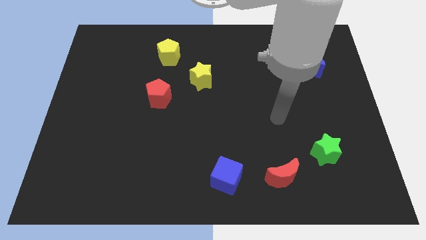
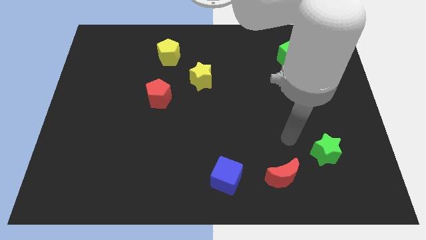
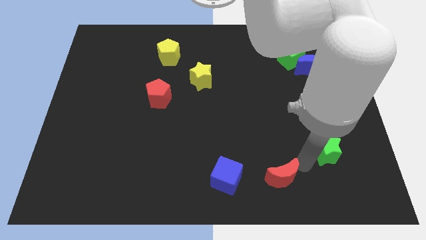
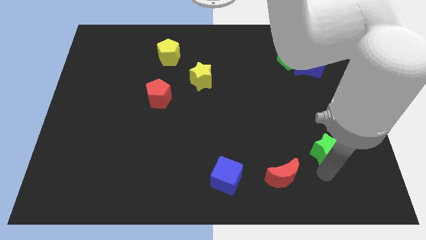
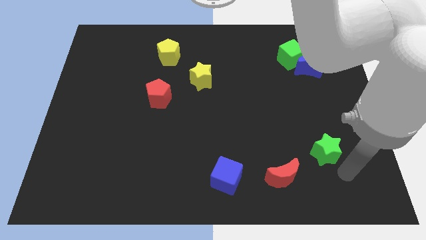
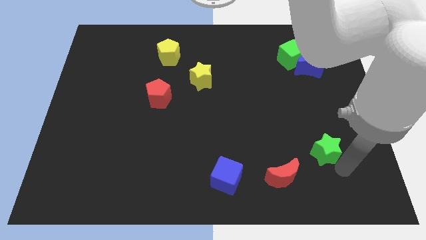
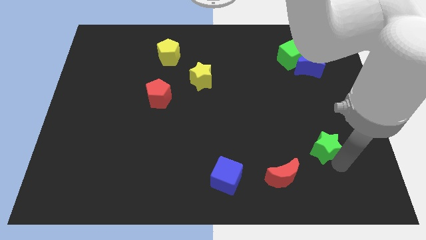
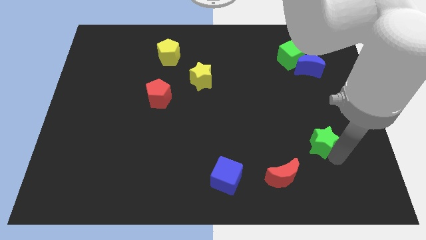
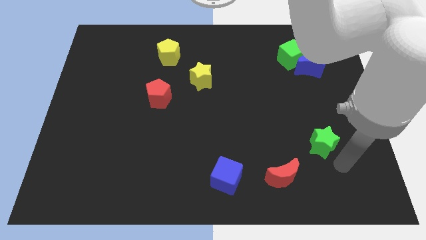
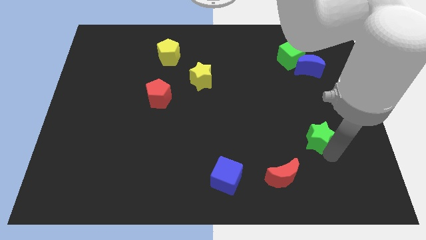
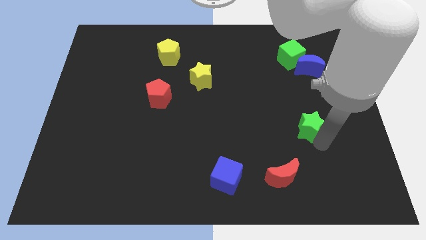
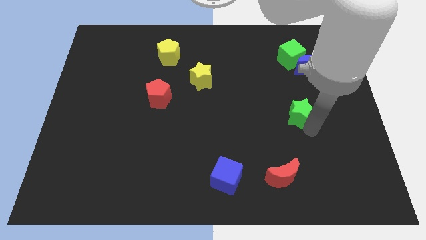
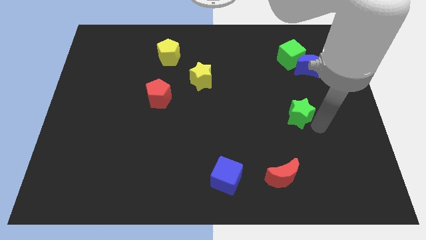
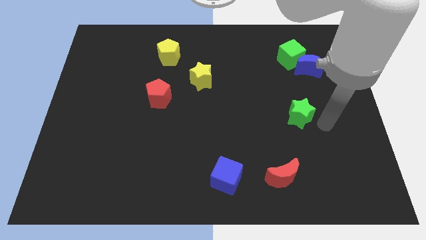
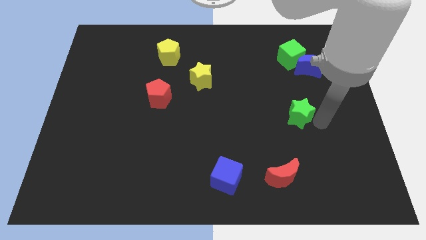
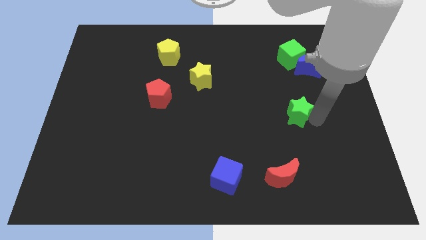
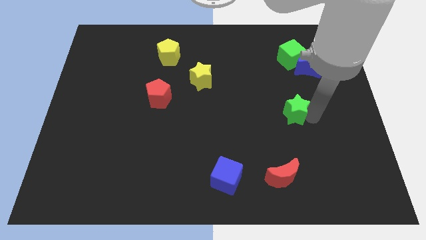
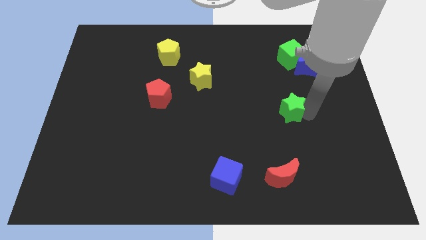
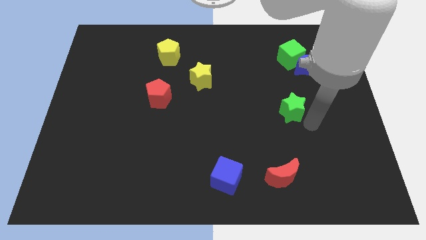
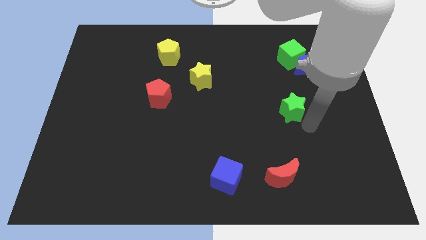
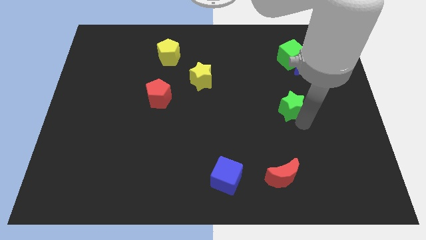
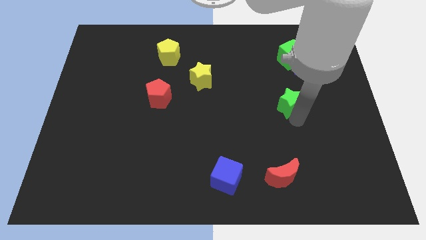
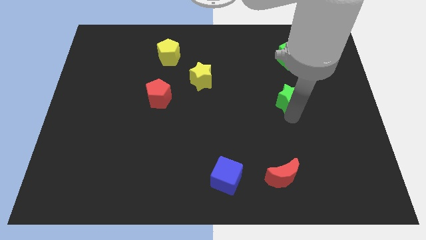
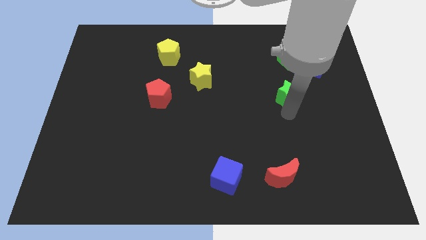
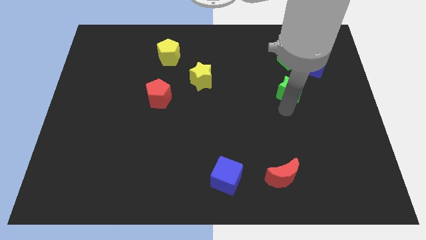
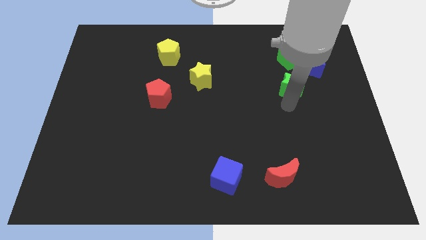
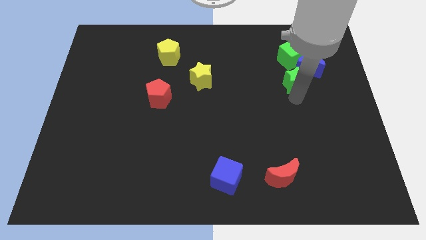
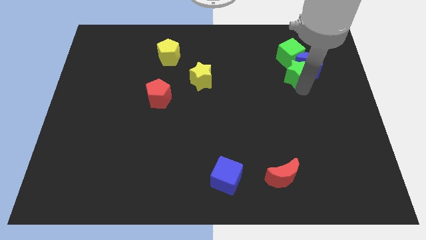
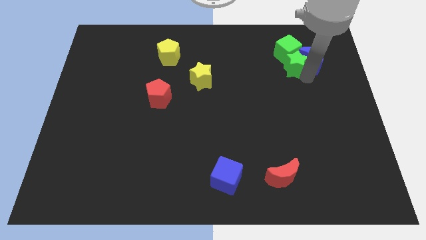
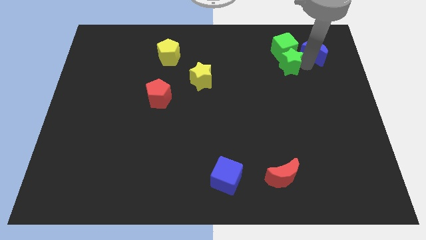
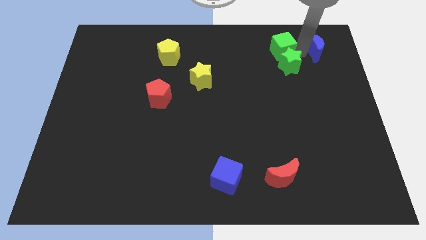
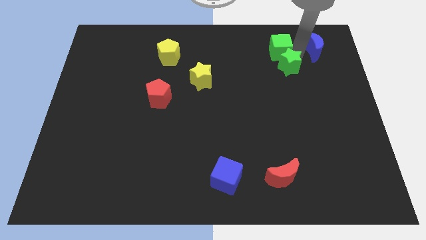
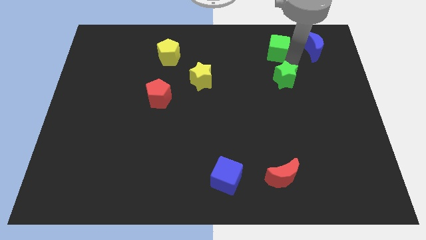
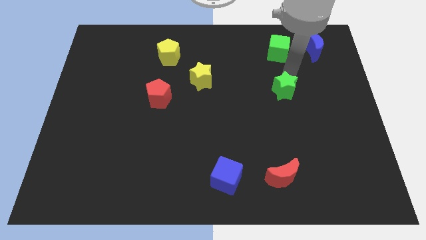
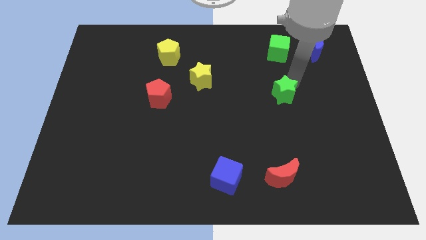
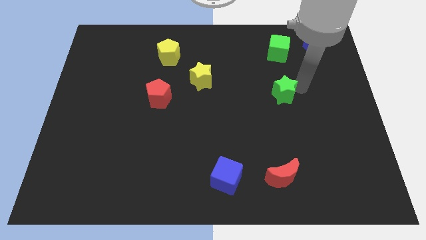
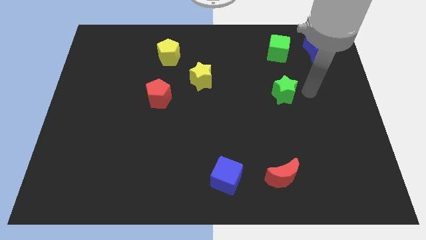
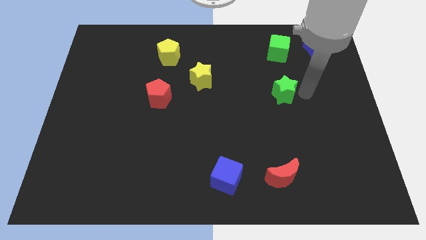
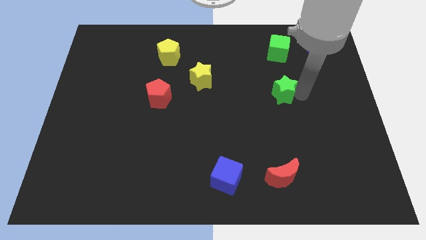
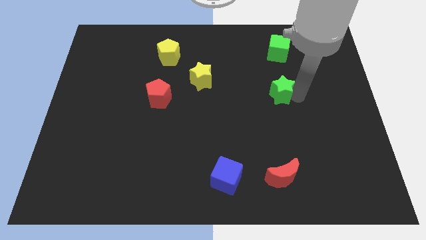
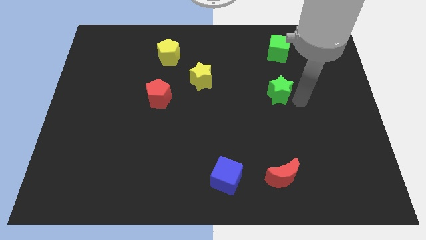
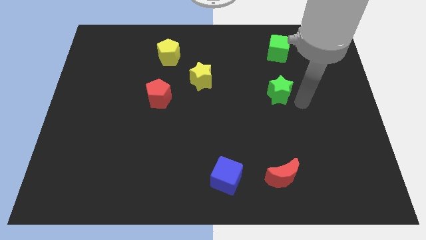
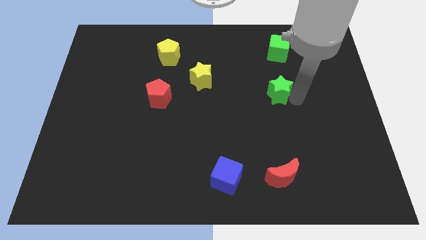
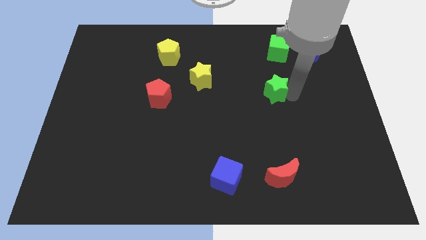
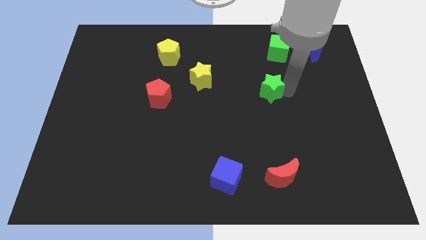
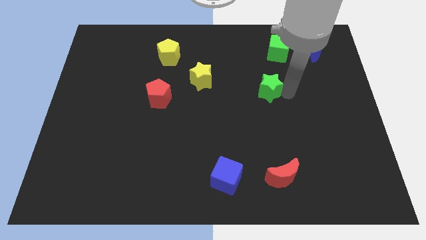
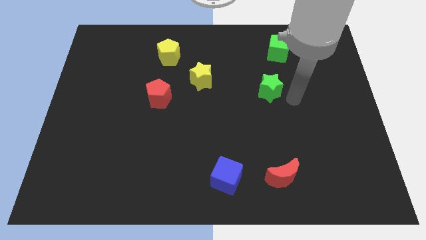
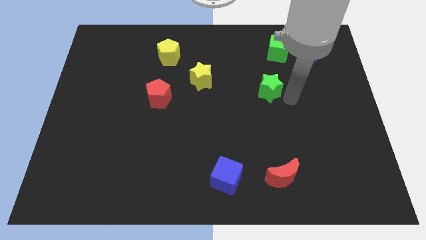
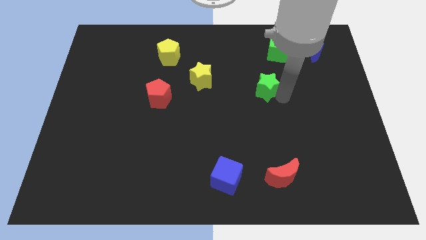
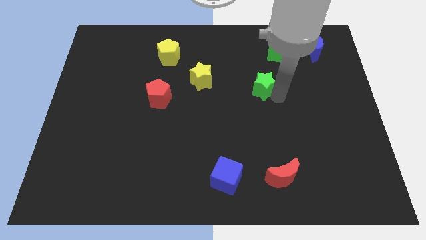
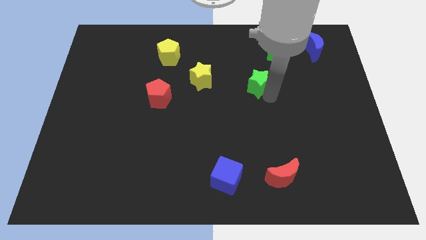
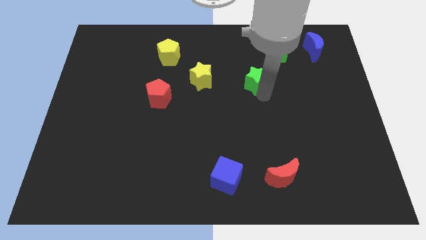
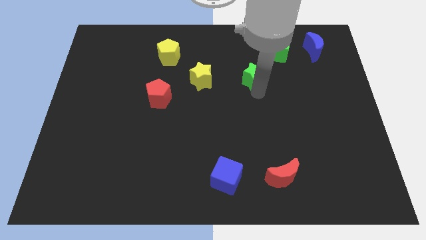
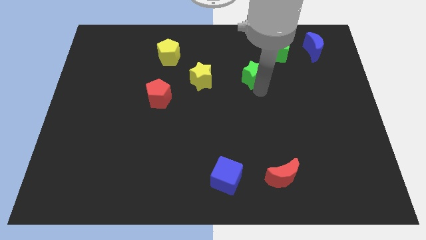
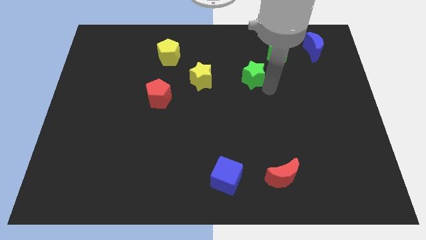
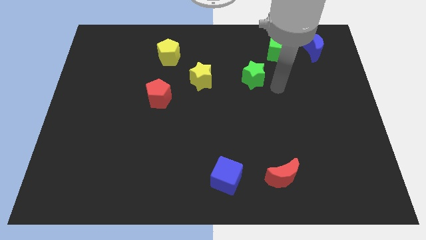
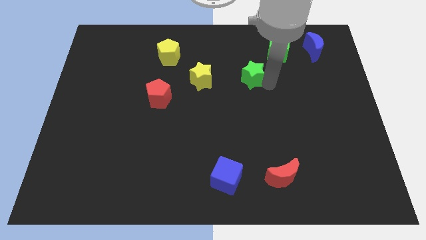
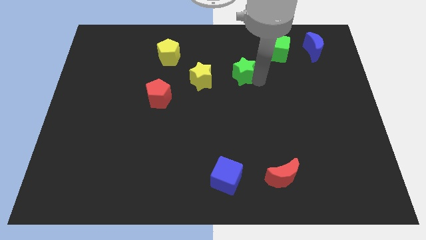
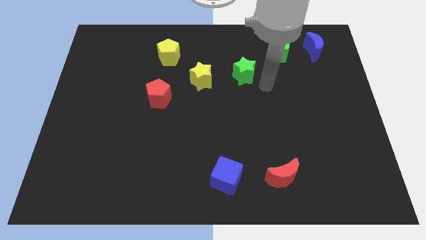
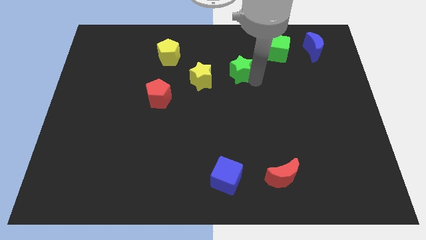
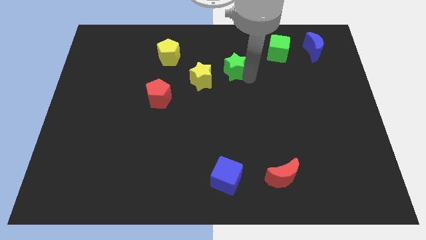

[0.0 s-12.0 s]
slide the green star diagonally up and to the right of the yellow star

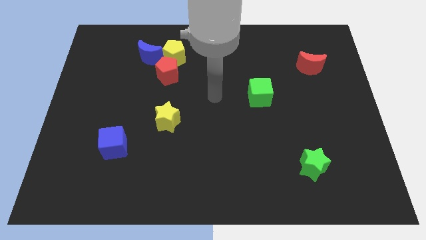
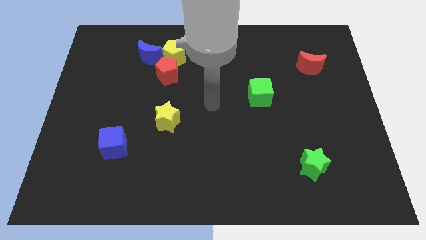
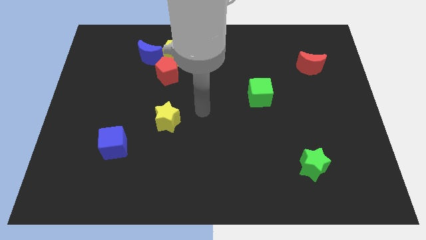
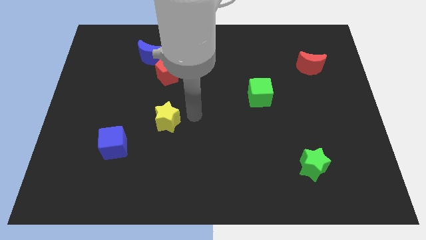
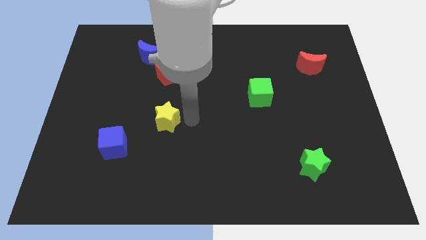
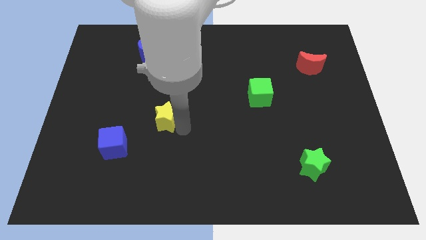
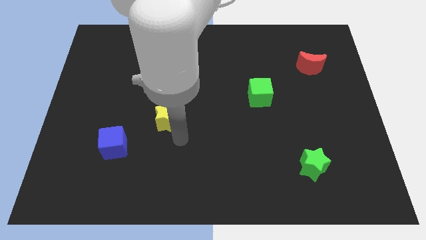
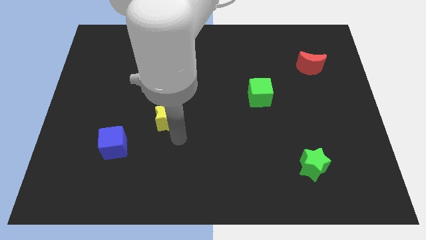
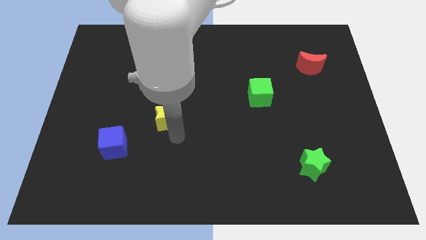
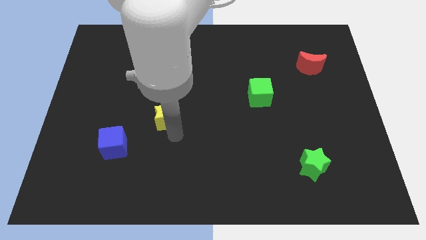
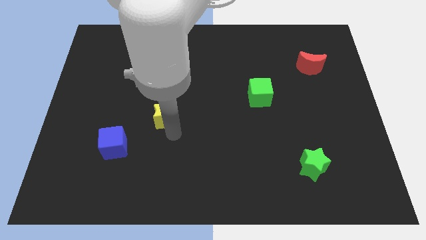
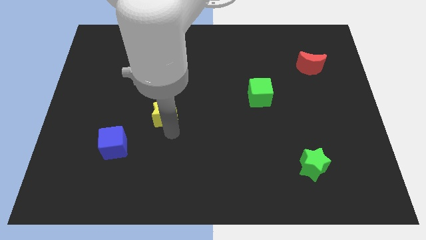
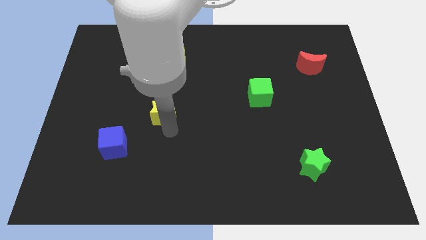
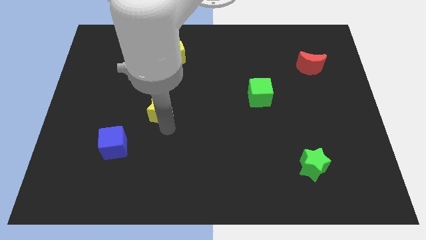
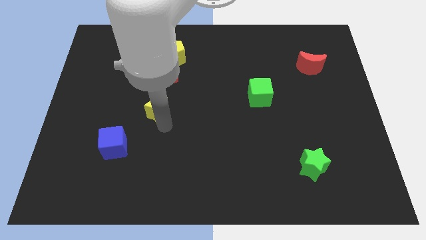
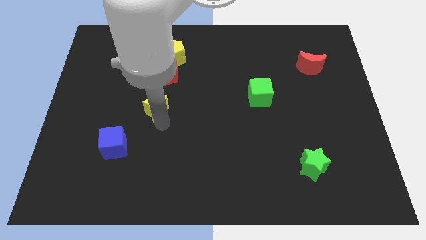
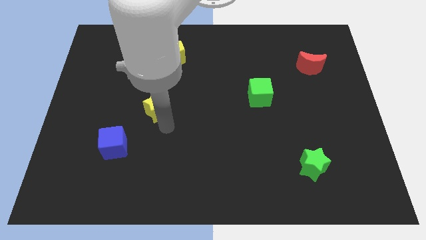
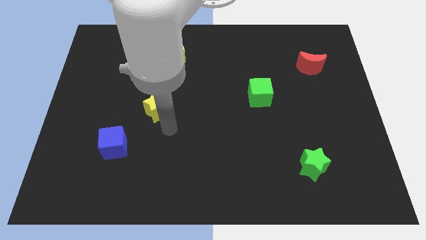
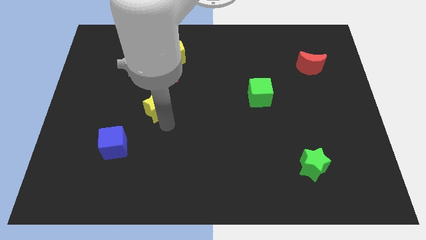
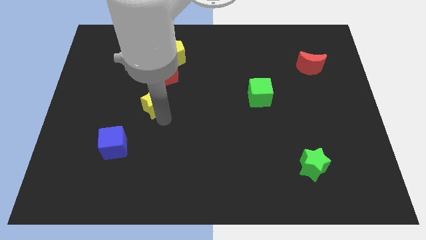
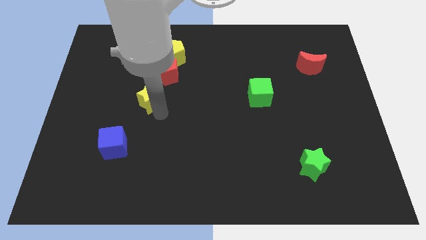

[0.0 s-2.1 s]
put the yellow star to the bottom left side of the red pentagon
